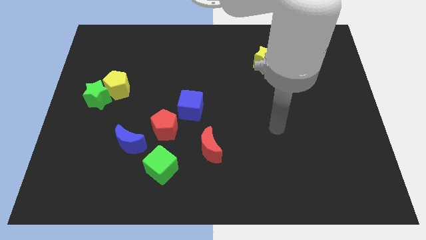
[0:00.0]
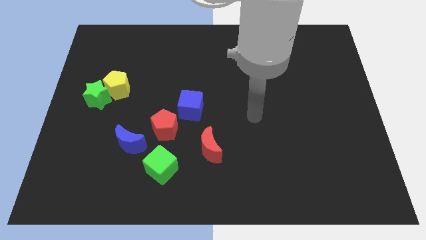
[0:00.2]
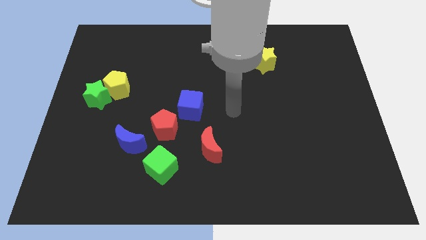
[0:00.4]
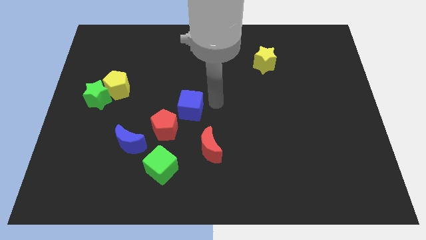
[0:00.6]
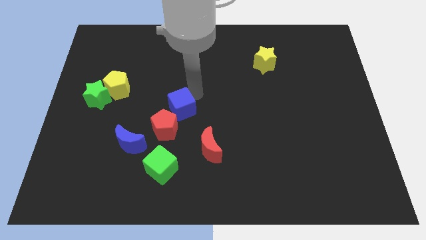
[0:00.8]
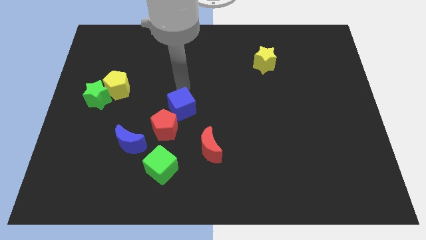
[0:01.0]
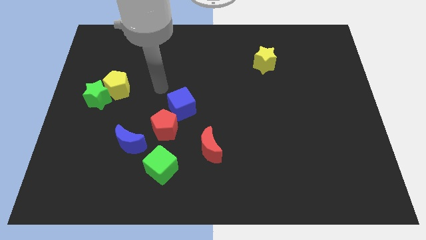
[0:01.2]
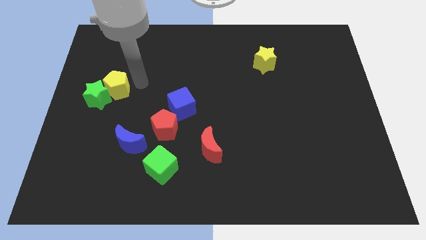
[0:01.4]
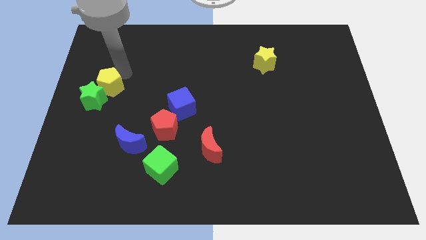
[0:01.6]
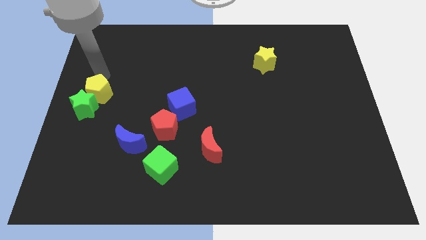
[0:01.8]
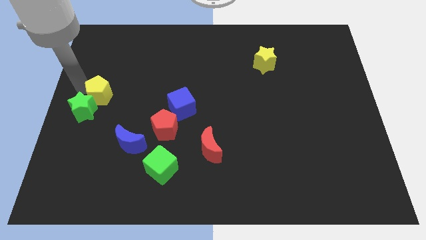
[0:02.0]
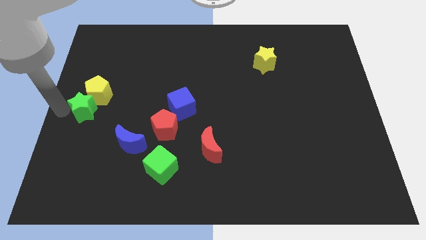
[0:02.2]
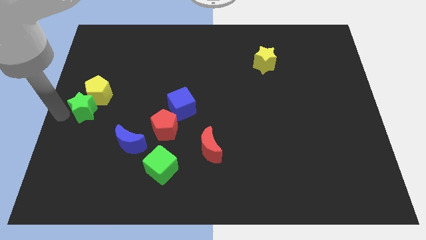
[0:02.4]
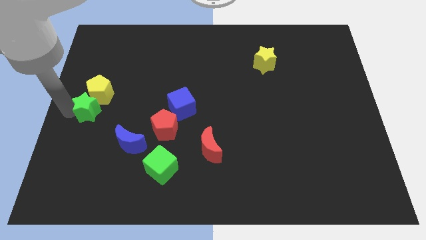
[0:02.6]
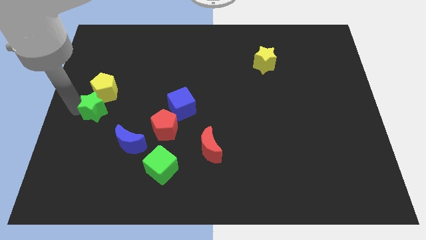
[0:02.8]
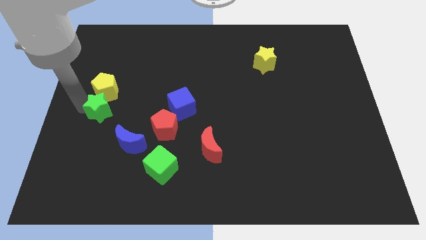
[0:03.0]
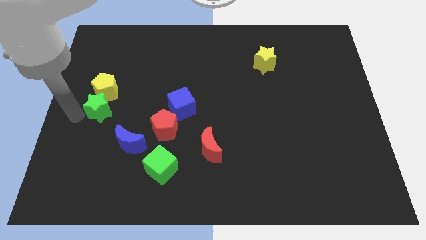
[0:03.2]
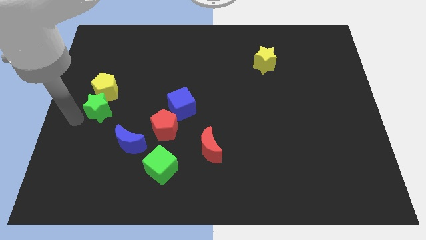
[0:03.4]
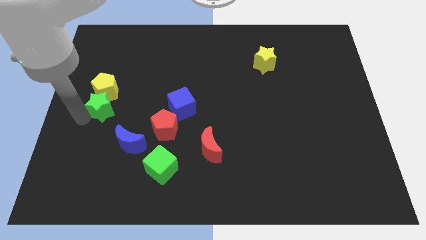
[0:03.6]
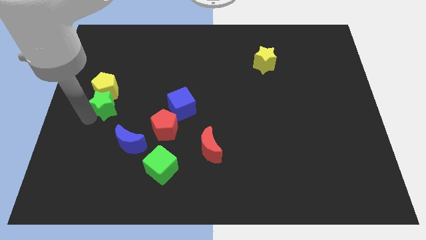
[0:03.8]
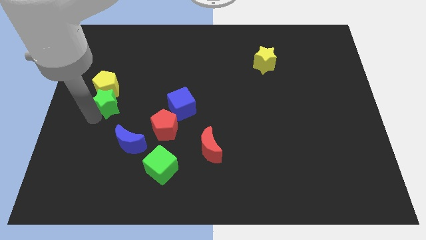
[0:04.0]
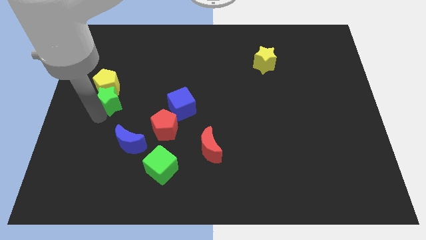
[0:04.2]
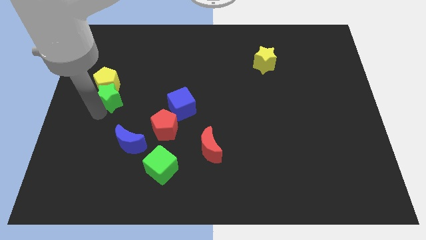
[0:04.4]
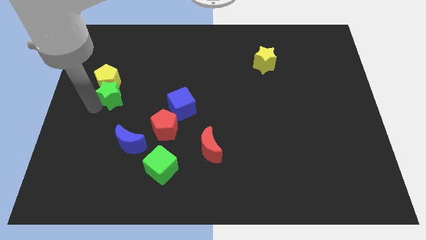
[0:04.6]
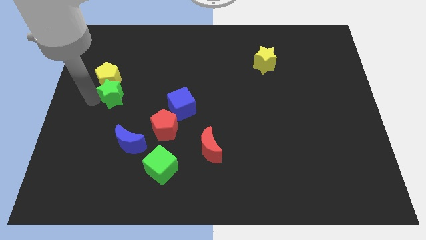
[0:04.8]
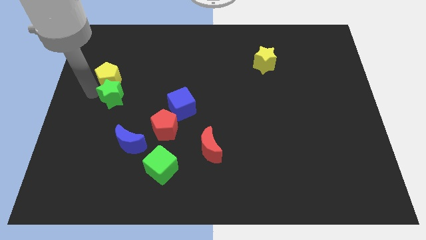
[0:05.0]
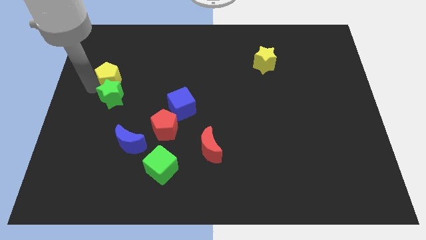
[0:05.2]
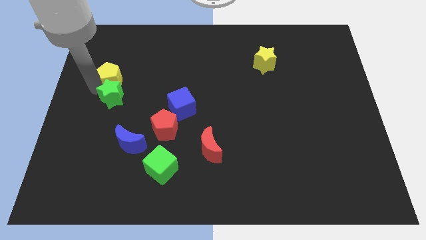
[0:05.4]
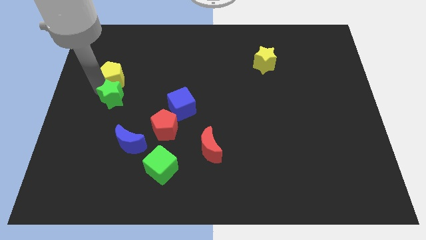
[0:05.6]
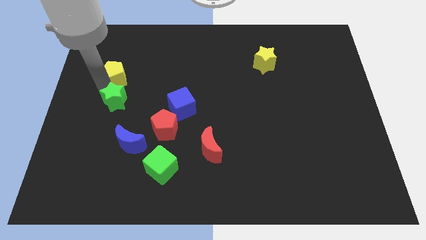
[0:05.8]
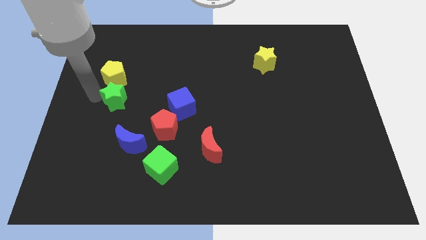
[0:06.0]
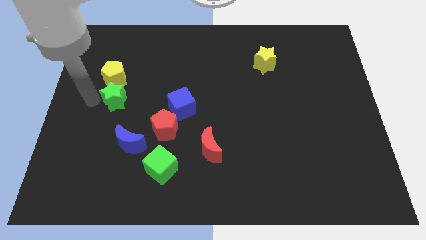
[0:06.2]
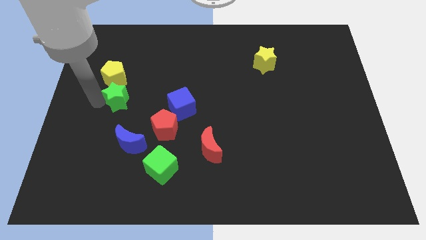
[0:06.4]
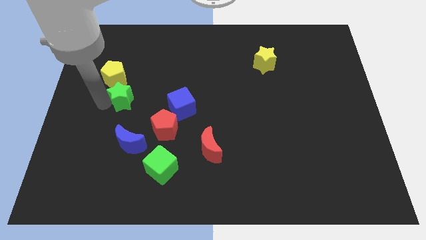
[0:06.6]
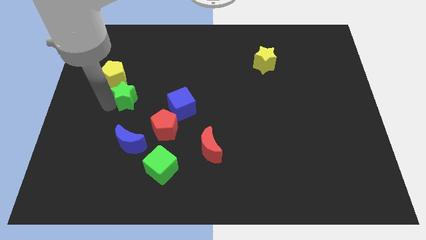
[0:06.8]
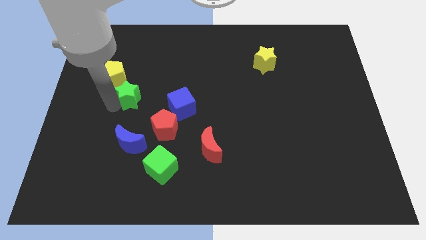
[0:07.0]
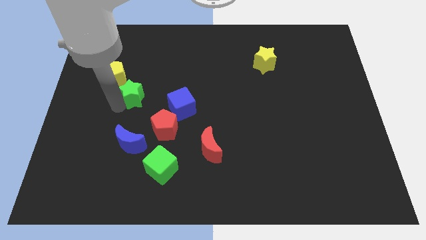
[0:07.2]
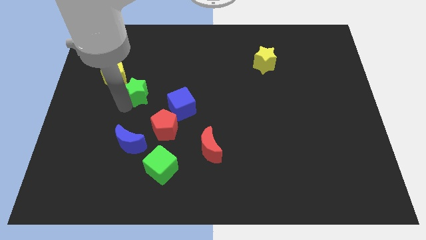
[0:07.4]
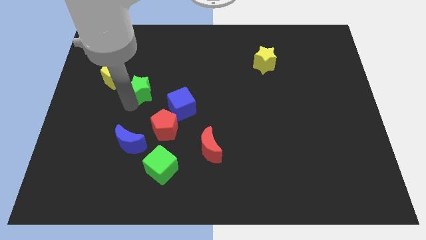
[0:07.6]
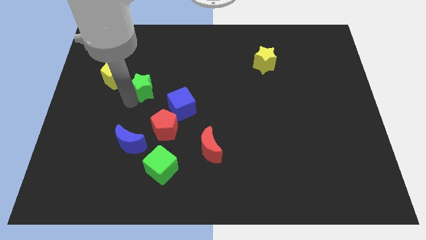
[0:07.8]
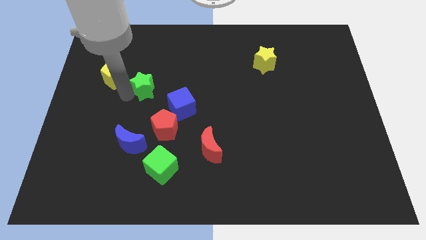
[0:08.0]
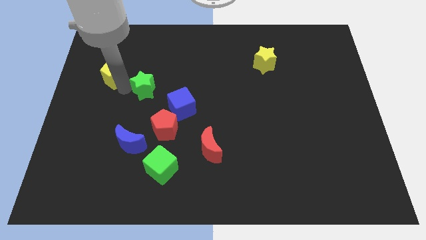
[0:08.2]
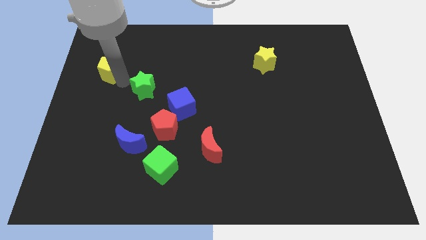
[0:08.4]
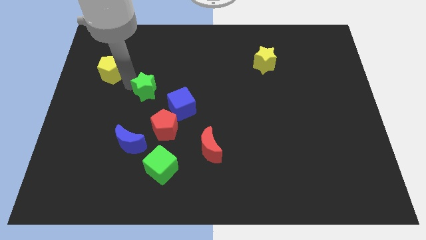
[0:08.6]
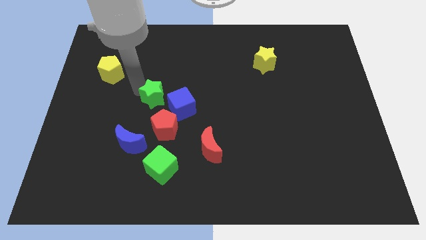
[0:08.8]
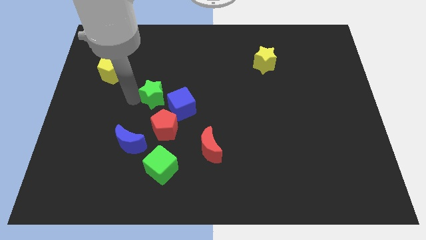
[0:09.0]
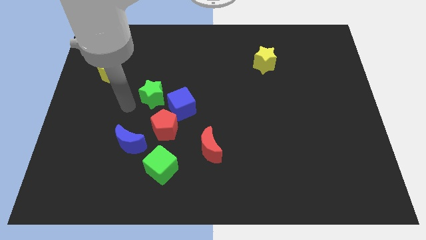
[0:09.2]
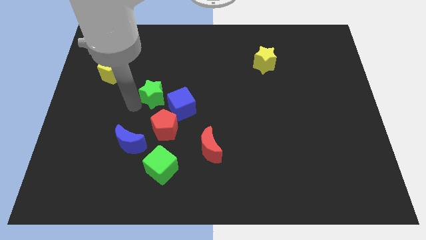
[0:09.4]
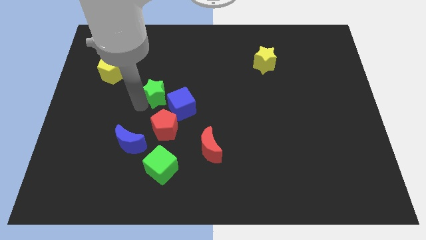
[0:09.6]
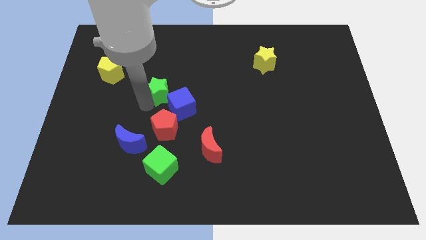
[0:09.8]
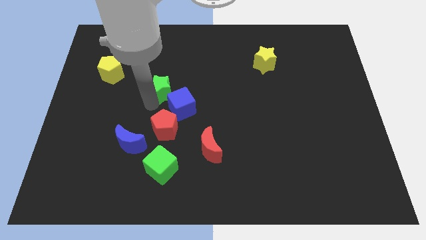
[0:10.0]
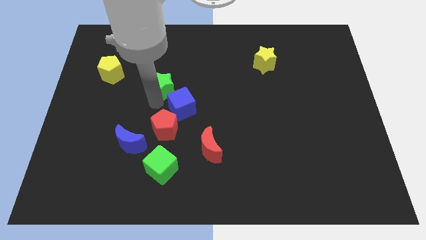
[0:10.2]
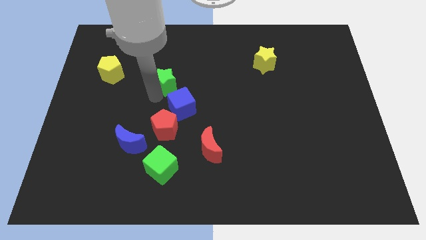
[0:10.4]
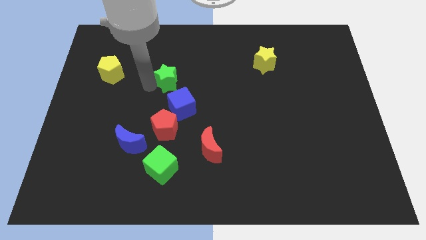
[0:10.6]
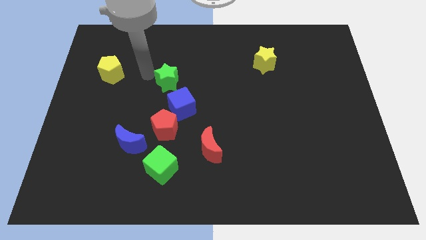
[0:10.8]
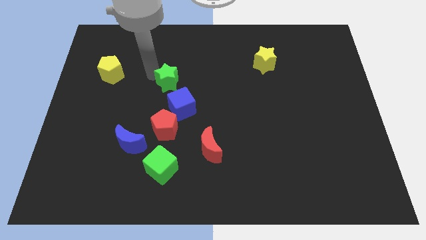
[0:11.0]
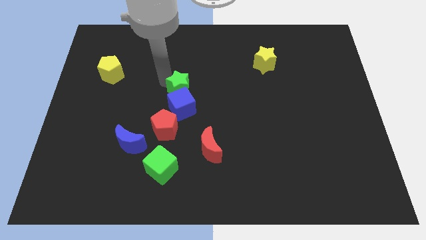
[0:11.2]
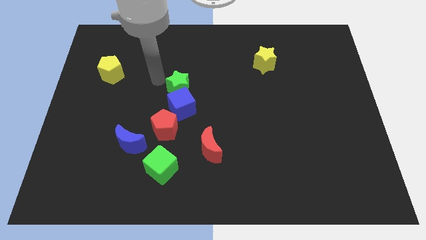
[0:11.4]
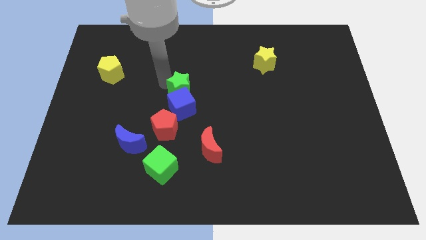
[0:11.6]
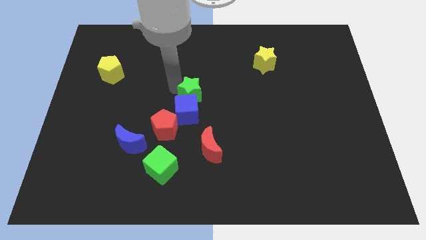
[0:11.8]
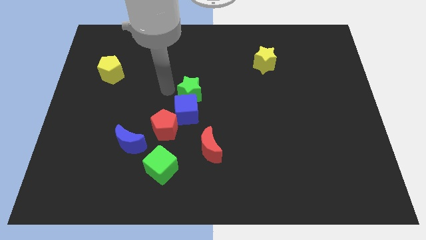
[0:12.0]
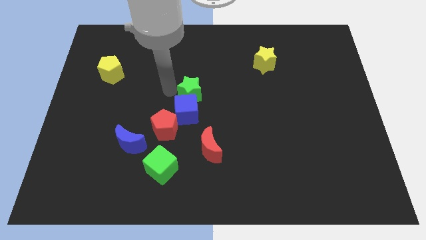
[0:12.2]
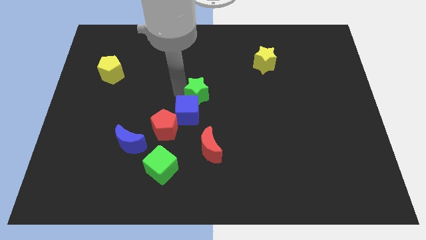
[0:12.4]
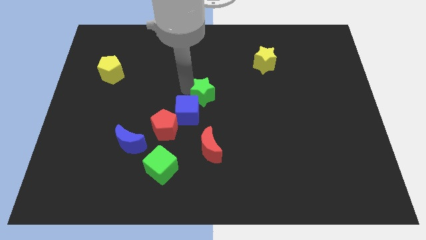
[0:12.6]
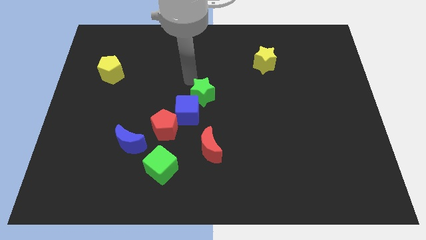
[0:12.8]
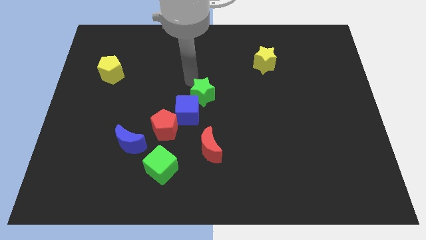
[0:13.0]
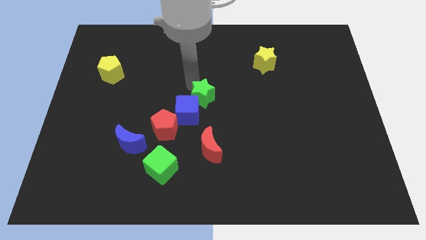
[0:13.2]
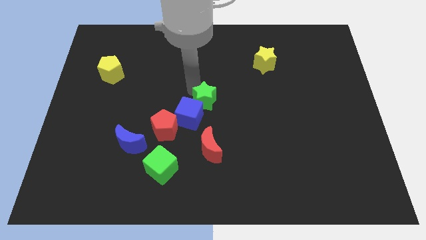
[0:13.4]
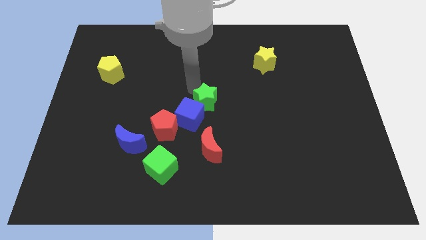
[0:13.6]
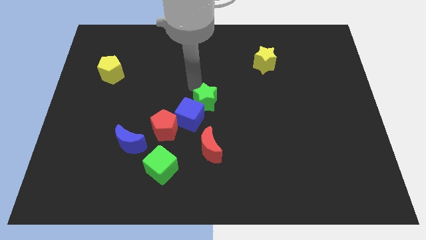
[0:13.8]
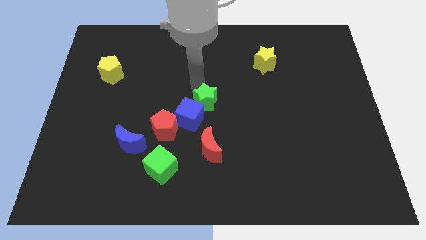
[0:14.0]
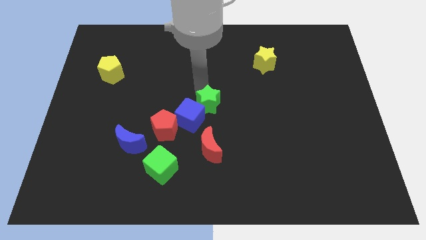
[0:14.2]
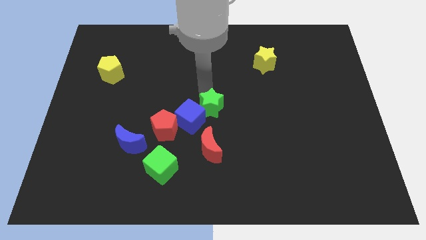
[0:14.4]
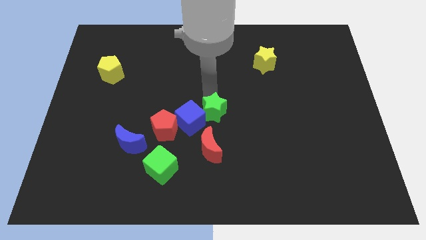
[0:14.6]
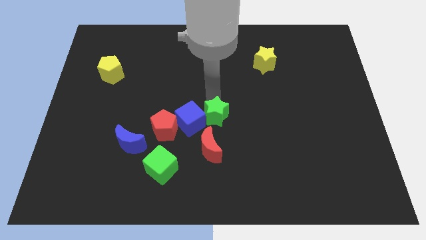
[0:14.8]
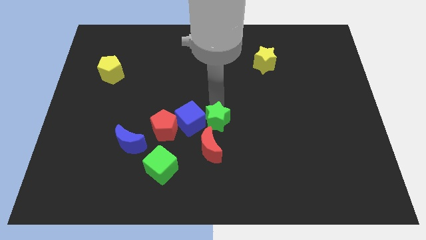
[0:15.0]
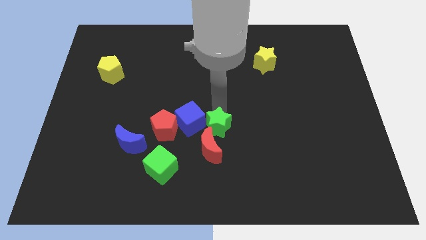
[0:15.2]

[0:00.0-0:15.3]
slide the green star towards the red moon

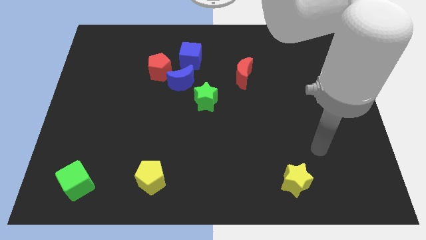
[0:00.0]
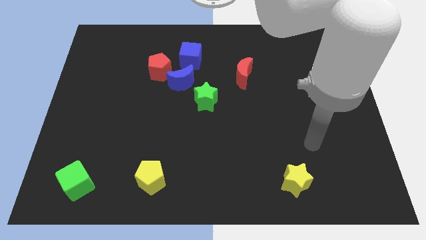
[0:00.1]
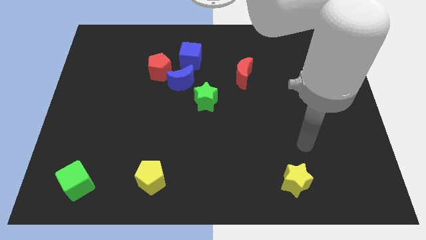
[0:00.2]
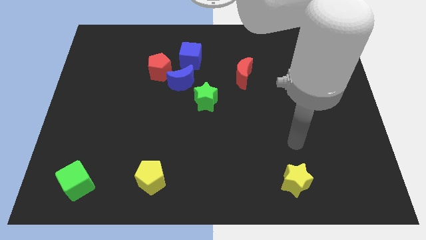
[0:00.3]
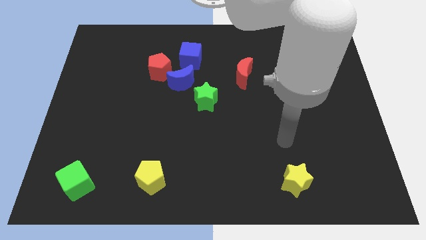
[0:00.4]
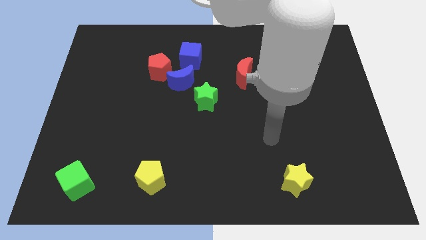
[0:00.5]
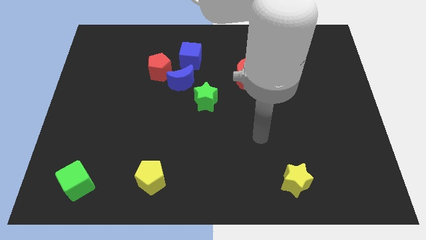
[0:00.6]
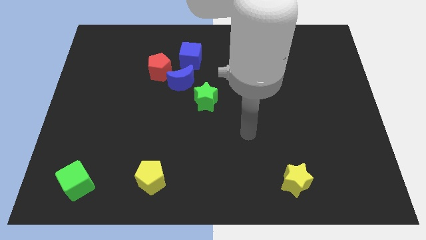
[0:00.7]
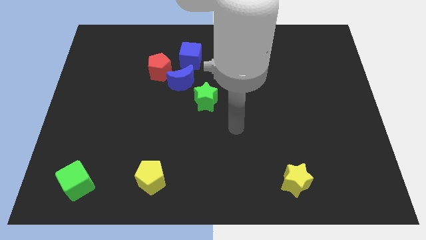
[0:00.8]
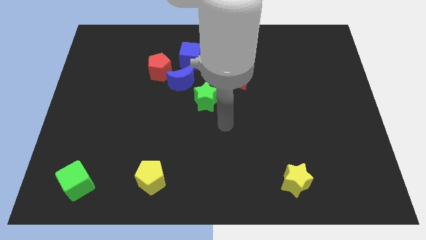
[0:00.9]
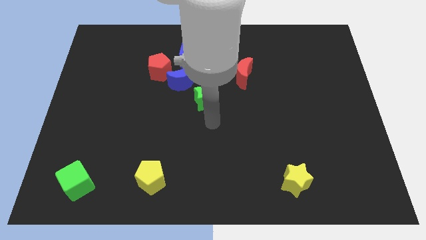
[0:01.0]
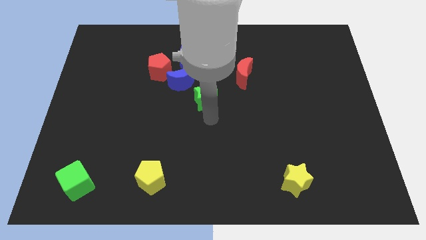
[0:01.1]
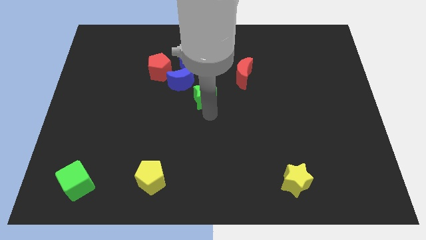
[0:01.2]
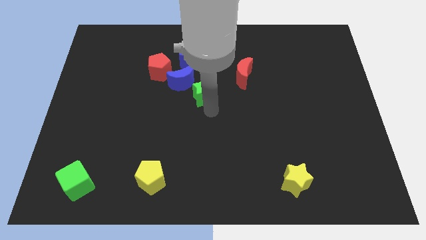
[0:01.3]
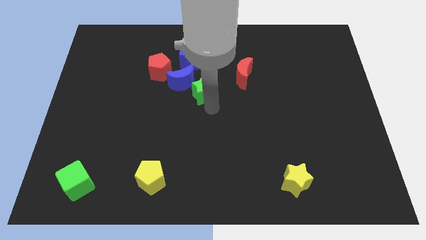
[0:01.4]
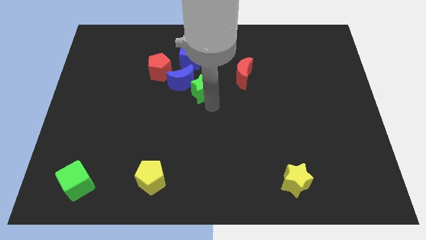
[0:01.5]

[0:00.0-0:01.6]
put the green star towards the blue moon
